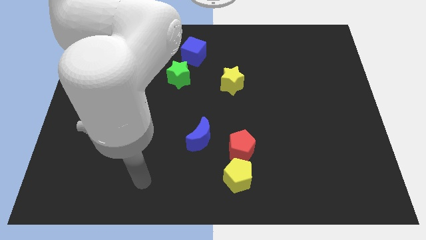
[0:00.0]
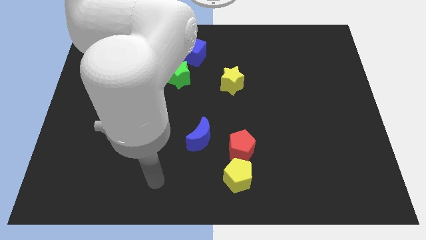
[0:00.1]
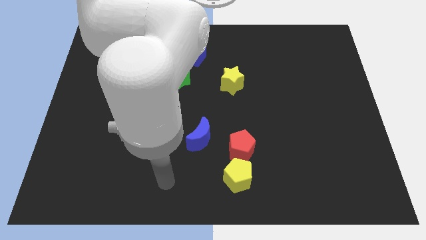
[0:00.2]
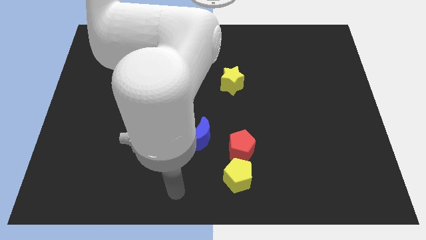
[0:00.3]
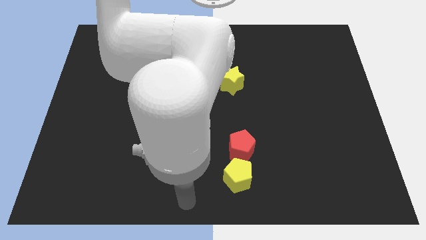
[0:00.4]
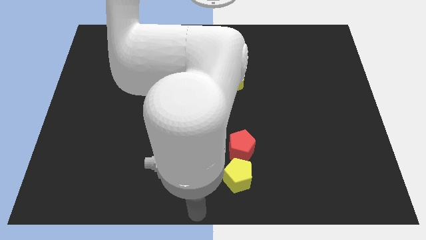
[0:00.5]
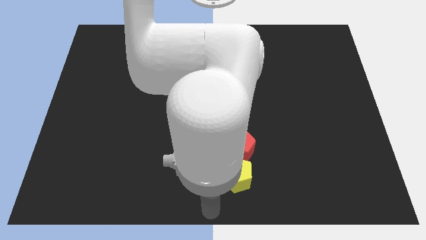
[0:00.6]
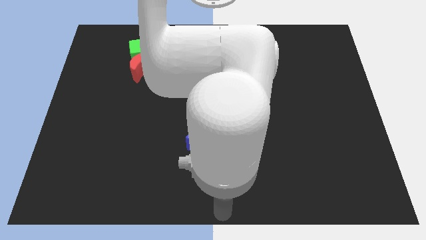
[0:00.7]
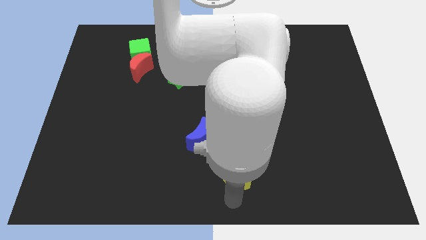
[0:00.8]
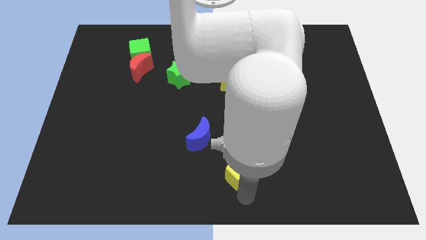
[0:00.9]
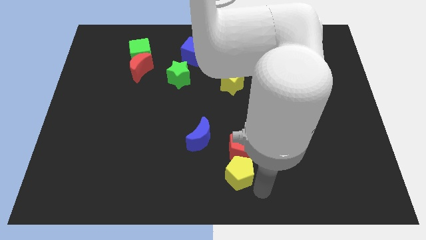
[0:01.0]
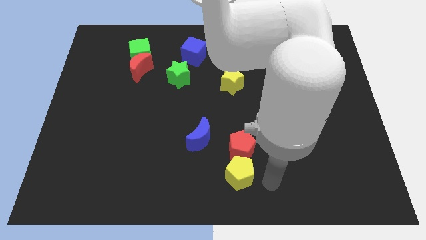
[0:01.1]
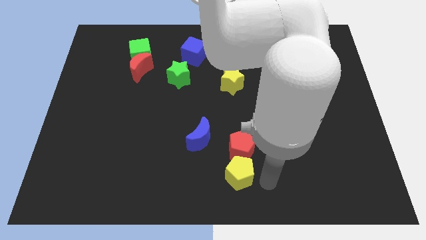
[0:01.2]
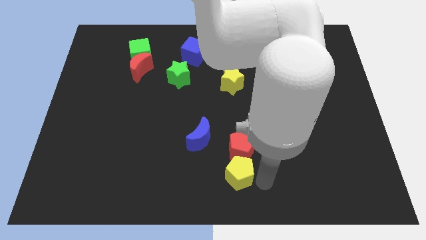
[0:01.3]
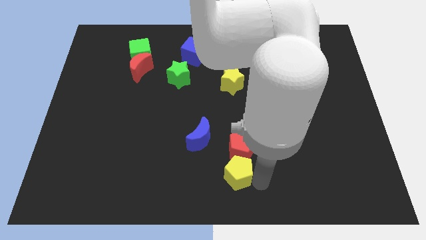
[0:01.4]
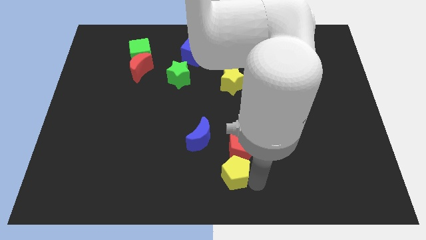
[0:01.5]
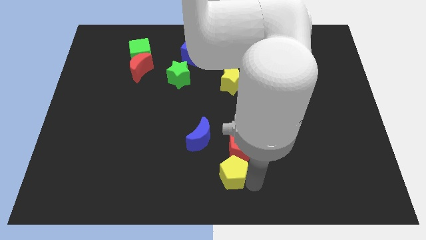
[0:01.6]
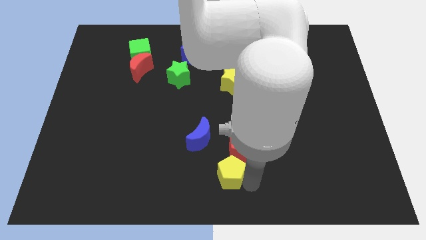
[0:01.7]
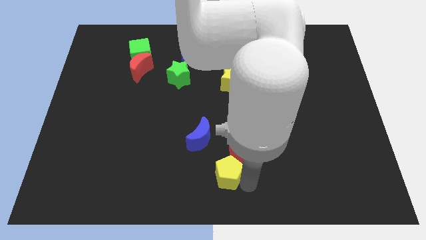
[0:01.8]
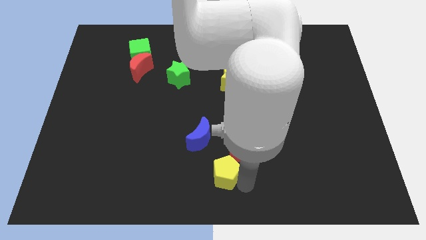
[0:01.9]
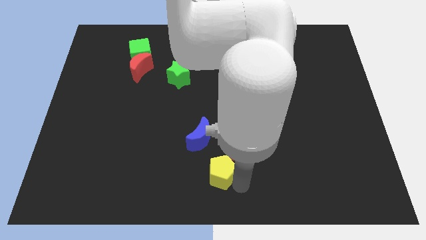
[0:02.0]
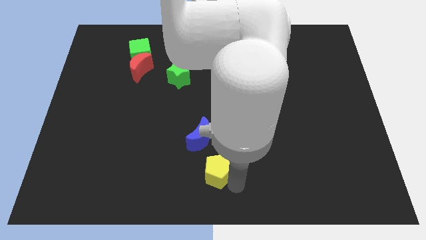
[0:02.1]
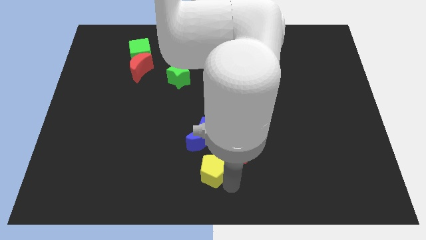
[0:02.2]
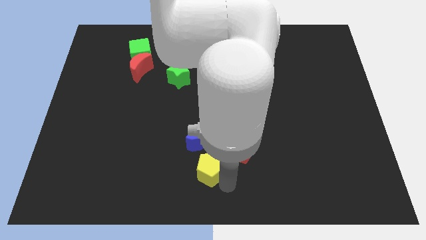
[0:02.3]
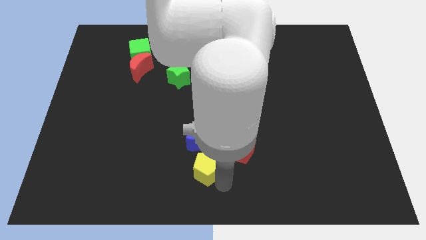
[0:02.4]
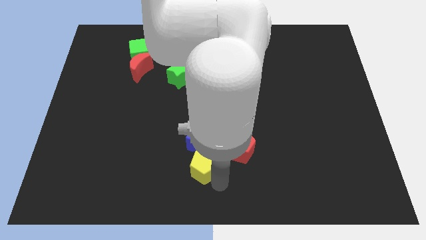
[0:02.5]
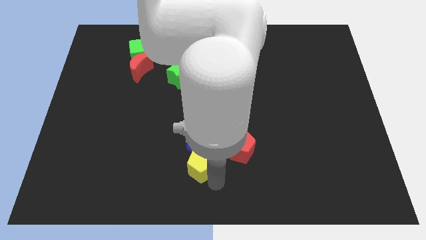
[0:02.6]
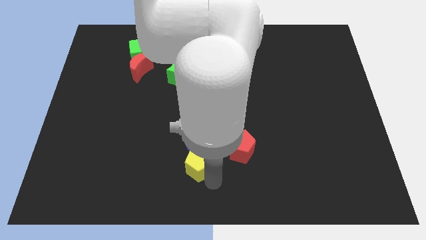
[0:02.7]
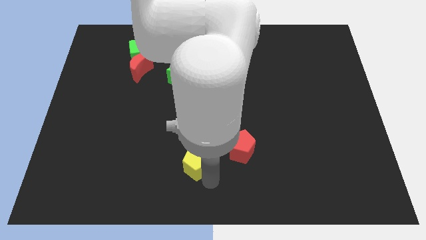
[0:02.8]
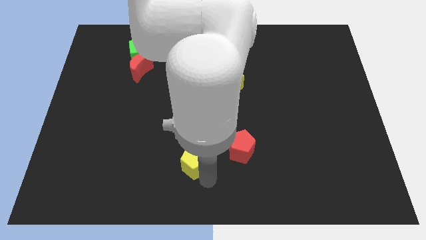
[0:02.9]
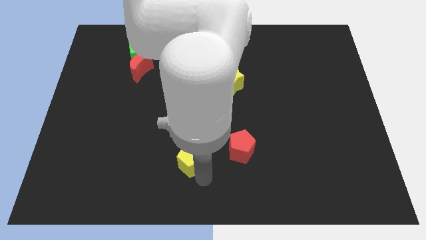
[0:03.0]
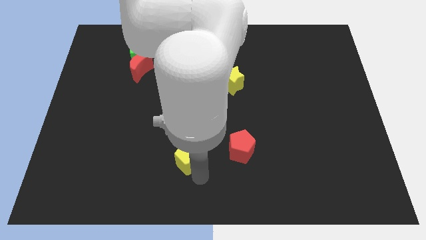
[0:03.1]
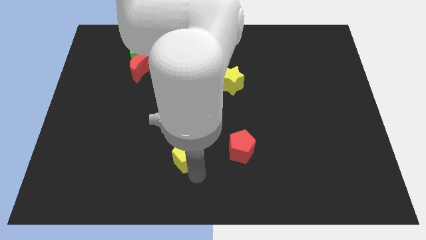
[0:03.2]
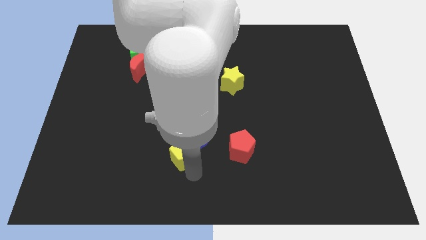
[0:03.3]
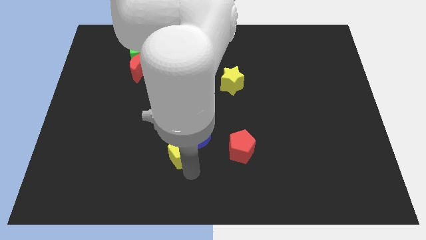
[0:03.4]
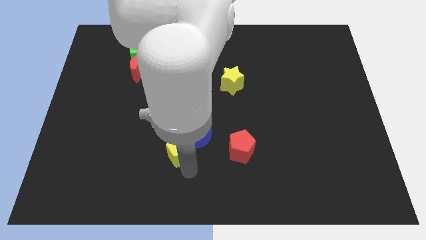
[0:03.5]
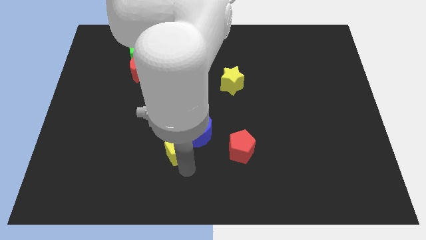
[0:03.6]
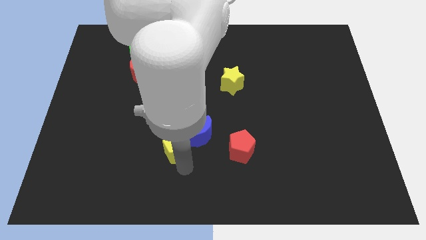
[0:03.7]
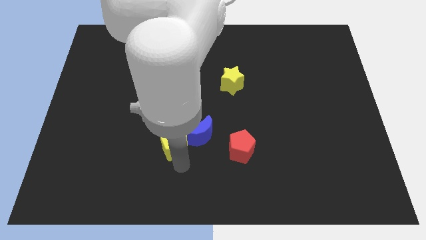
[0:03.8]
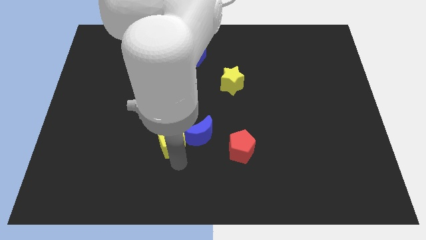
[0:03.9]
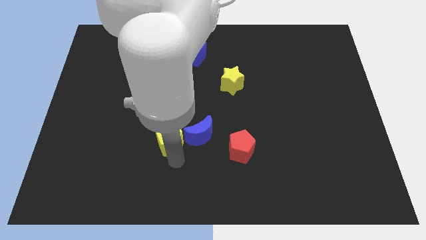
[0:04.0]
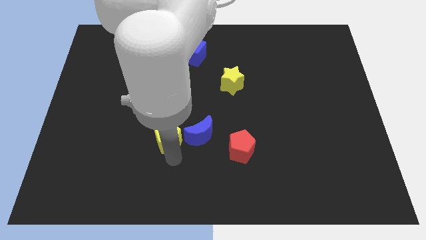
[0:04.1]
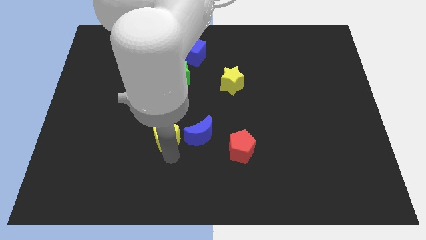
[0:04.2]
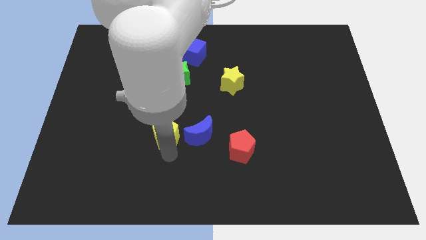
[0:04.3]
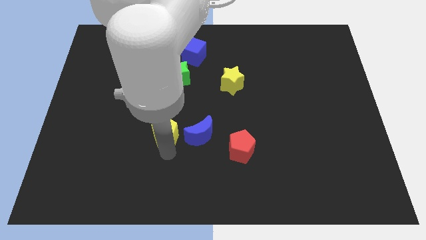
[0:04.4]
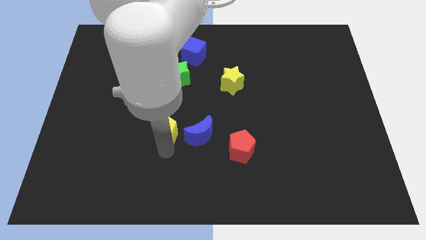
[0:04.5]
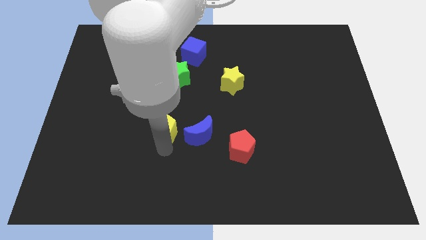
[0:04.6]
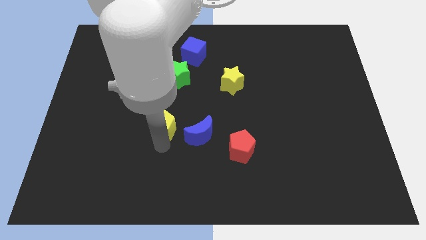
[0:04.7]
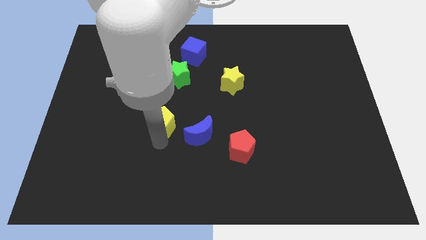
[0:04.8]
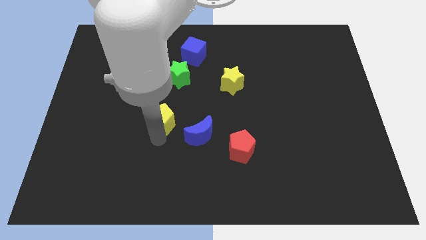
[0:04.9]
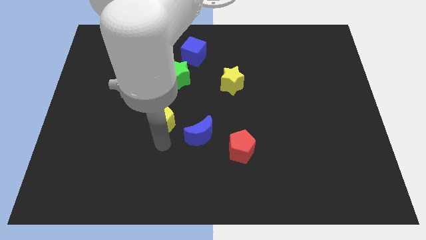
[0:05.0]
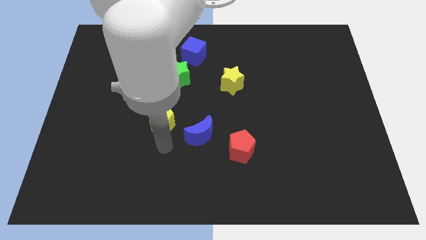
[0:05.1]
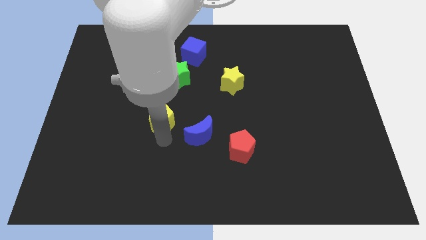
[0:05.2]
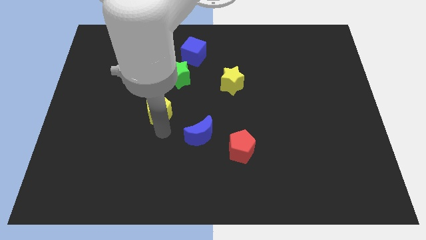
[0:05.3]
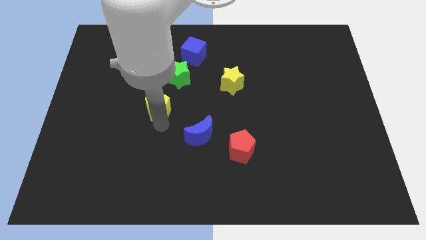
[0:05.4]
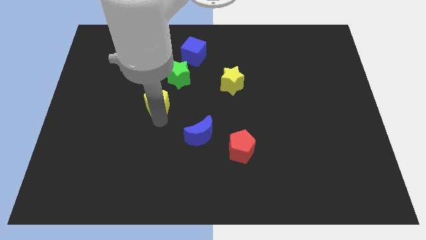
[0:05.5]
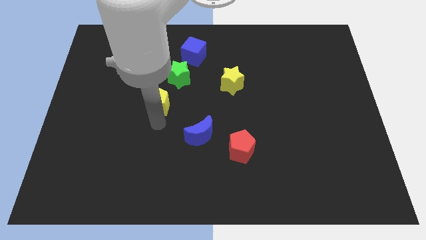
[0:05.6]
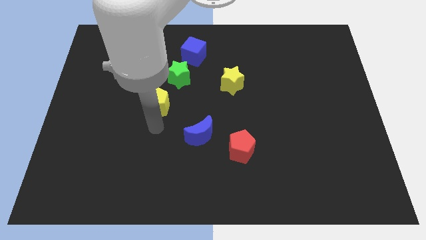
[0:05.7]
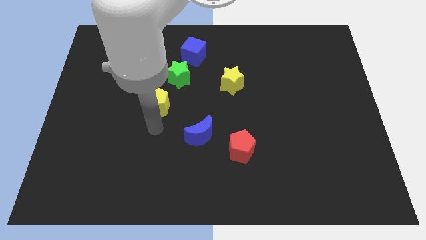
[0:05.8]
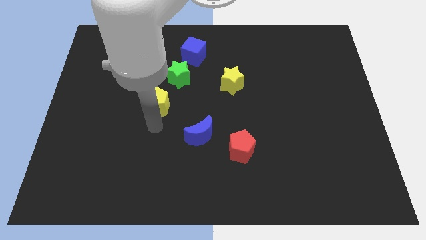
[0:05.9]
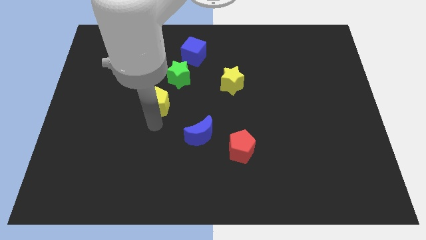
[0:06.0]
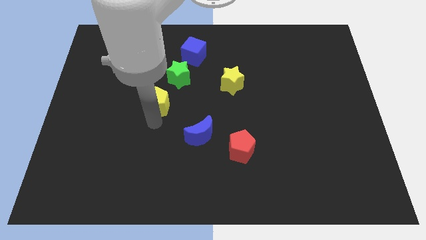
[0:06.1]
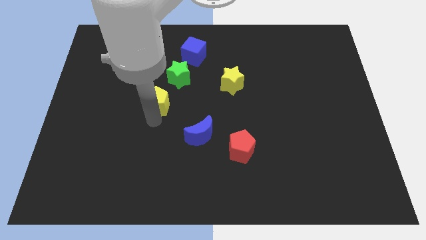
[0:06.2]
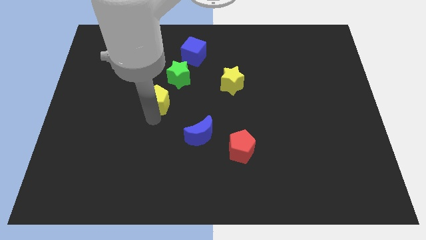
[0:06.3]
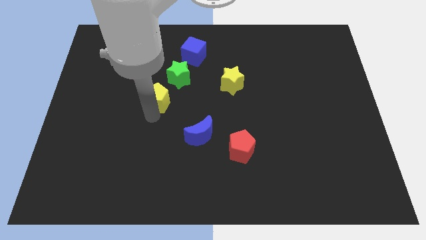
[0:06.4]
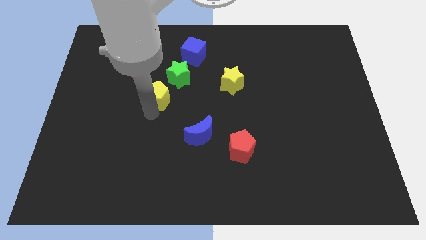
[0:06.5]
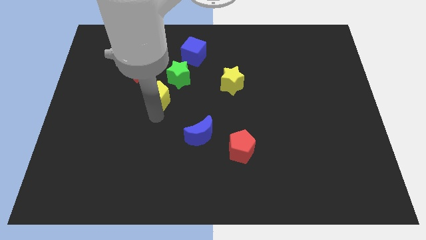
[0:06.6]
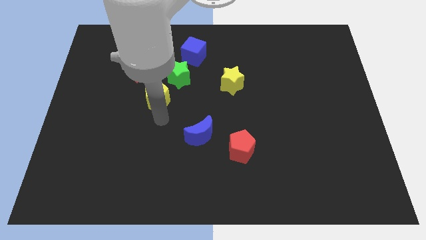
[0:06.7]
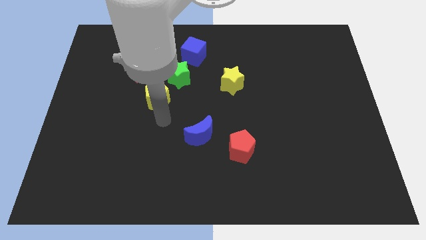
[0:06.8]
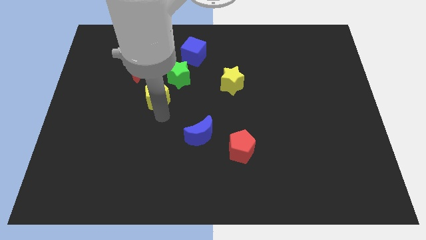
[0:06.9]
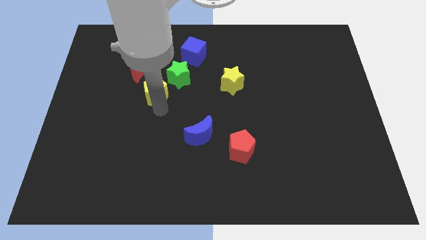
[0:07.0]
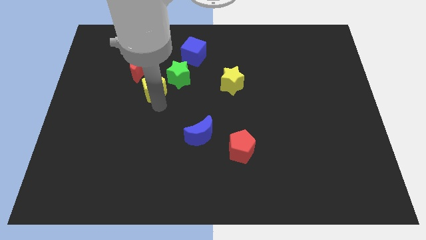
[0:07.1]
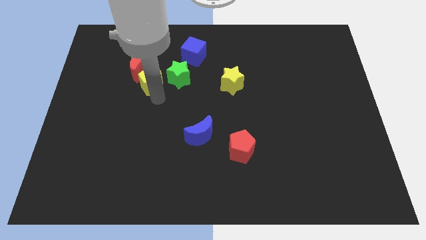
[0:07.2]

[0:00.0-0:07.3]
move the yellow pentagon towards the red moon
